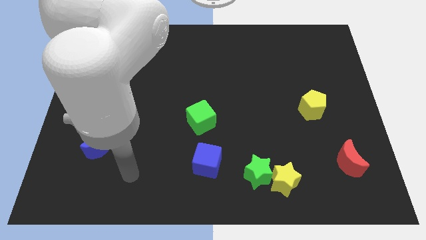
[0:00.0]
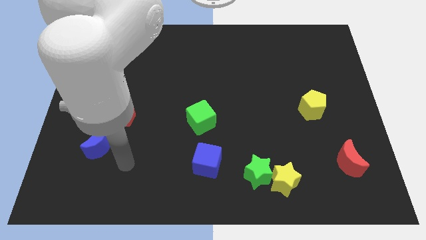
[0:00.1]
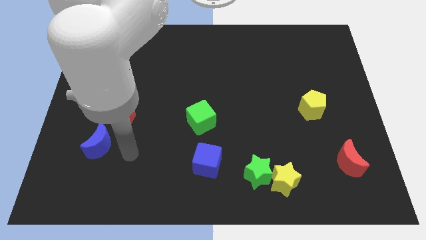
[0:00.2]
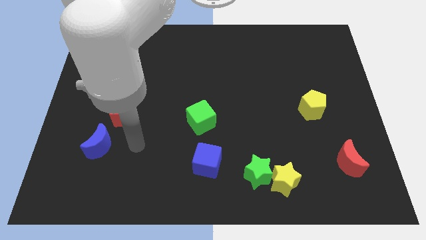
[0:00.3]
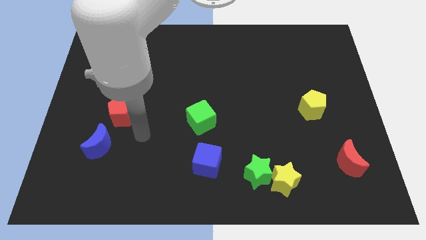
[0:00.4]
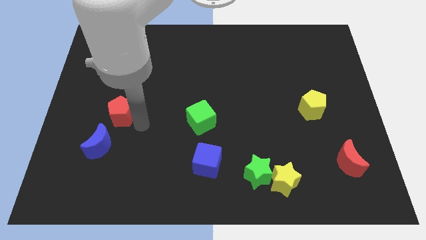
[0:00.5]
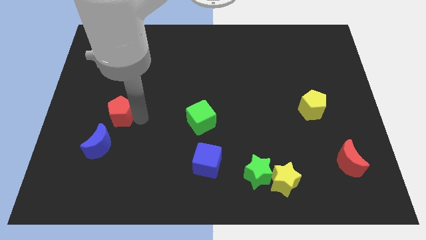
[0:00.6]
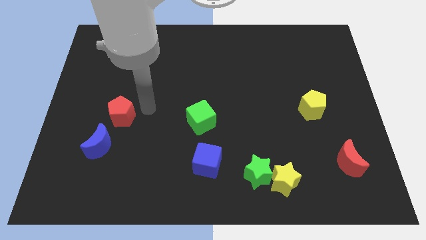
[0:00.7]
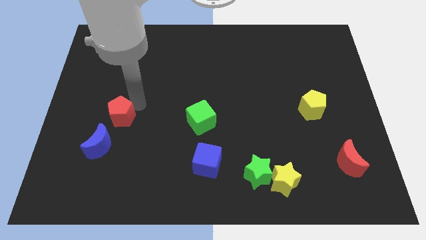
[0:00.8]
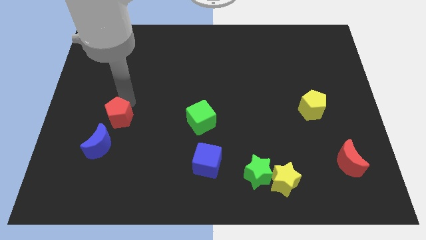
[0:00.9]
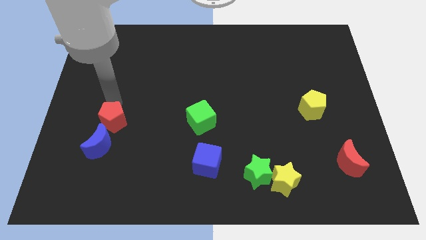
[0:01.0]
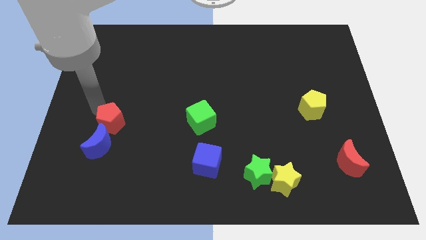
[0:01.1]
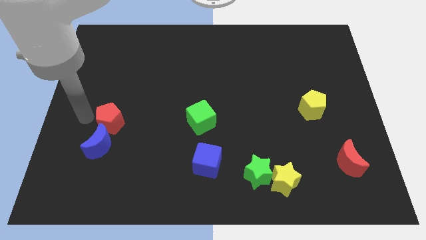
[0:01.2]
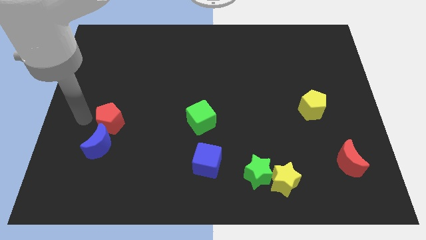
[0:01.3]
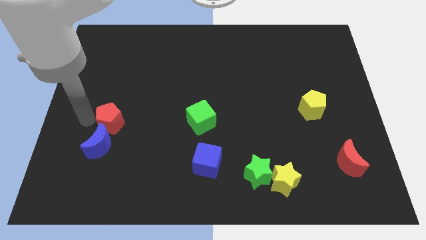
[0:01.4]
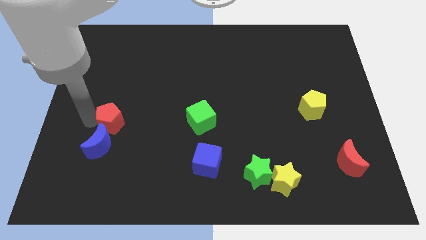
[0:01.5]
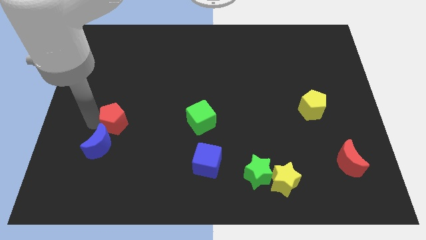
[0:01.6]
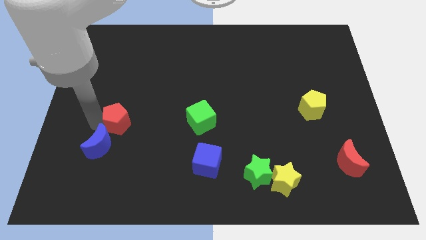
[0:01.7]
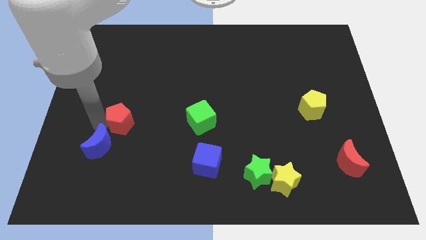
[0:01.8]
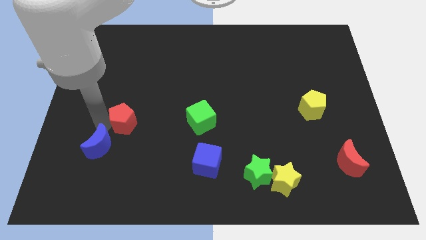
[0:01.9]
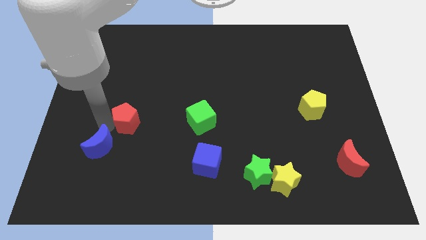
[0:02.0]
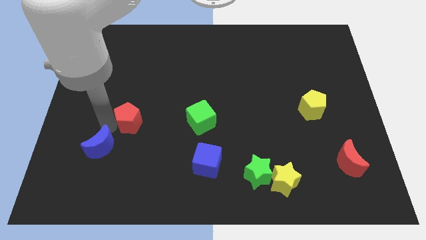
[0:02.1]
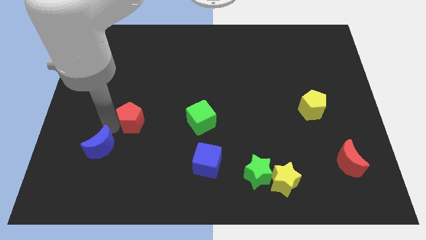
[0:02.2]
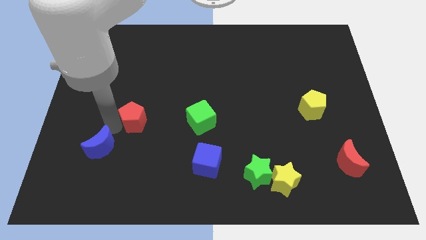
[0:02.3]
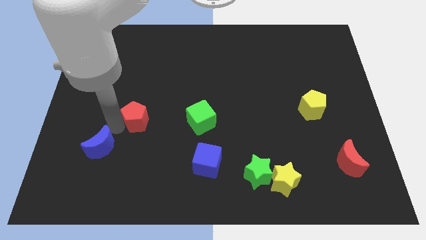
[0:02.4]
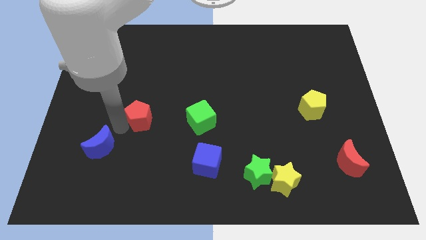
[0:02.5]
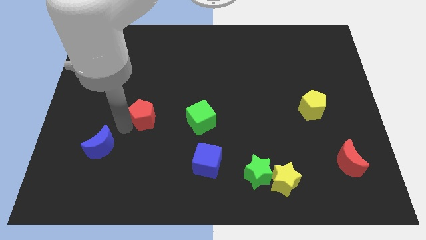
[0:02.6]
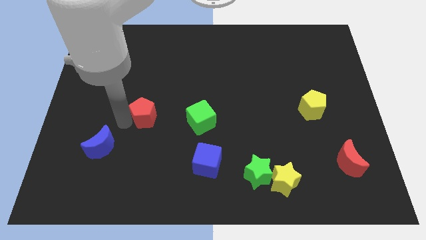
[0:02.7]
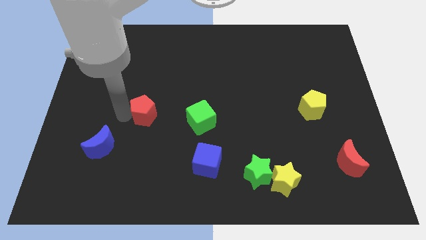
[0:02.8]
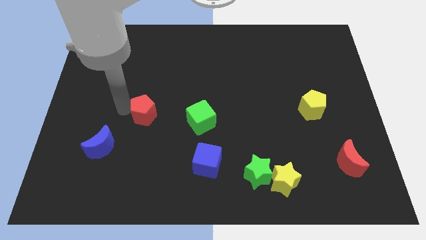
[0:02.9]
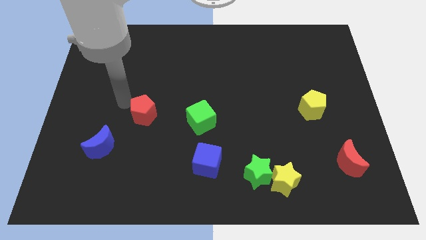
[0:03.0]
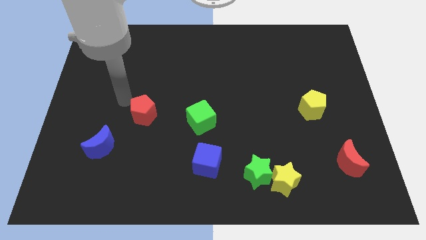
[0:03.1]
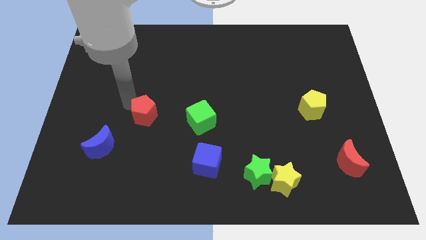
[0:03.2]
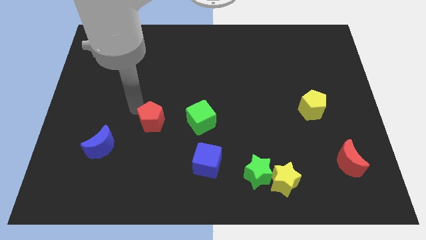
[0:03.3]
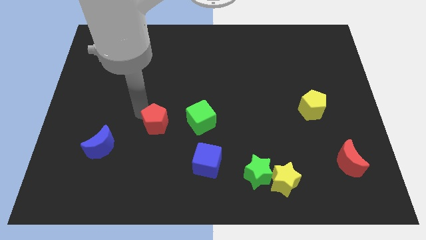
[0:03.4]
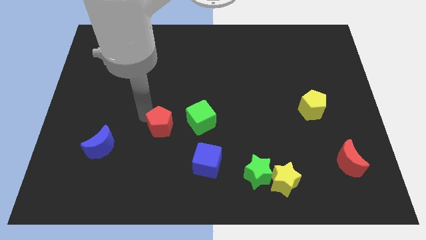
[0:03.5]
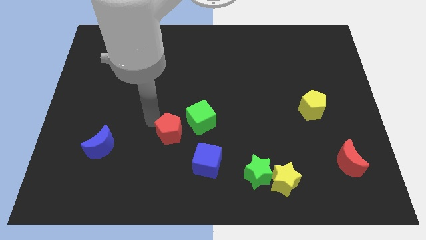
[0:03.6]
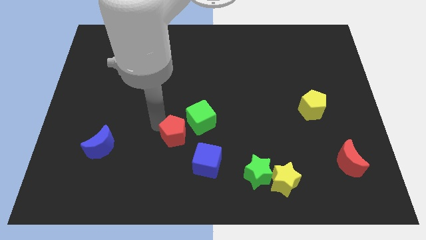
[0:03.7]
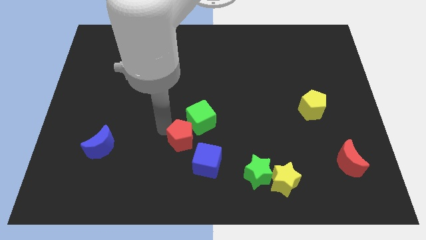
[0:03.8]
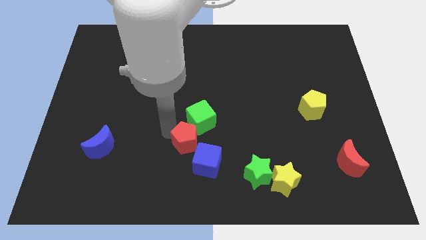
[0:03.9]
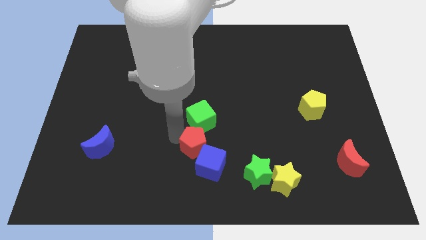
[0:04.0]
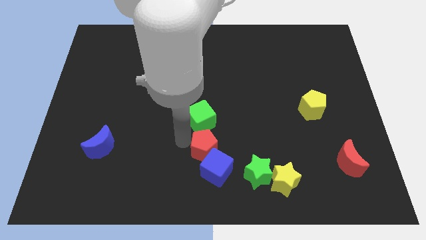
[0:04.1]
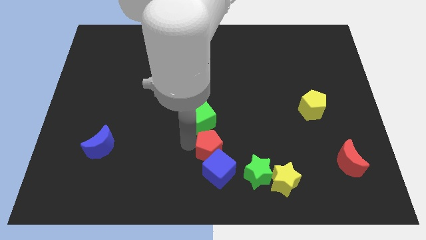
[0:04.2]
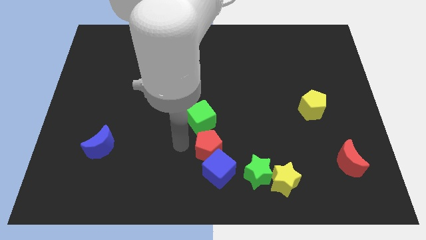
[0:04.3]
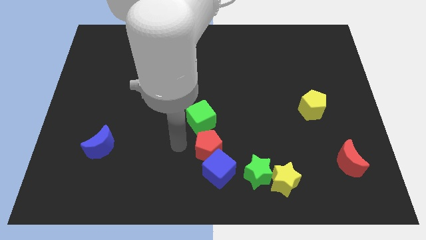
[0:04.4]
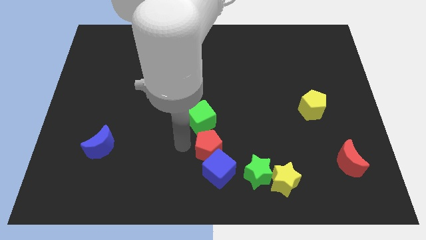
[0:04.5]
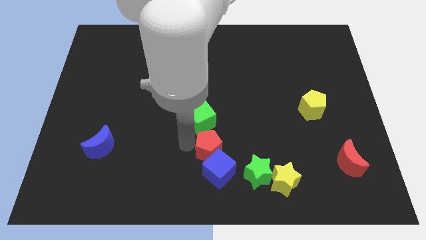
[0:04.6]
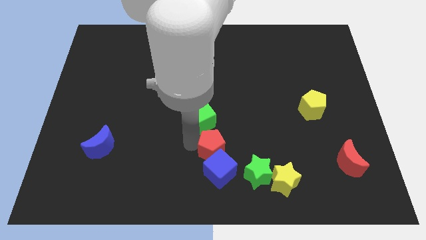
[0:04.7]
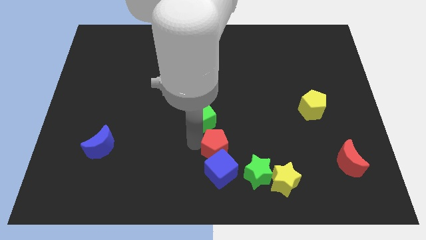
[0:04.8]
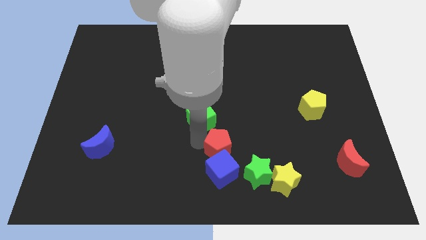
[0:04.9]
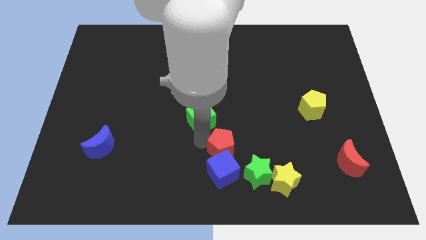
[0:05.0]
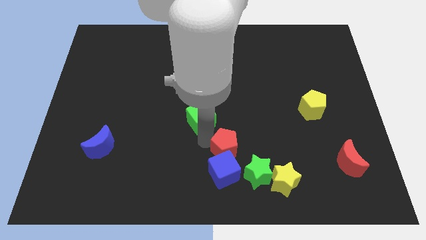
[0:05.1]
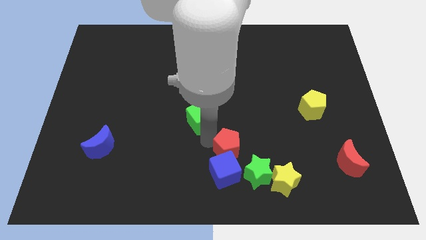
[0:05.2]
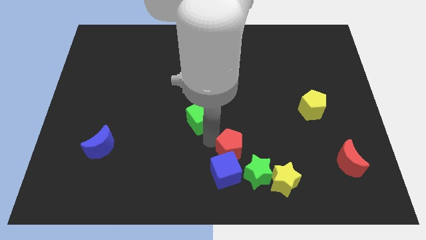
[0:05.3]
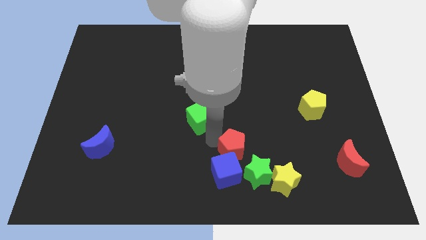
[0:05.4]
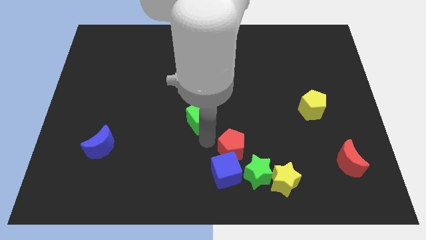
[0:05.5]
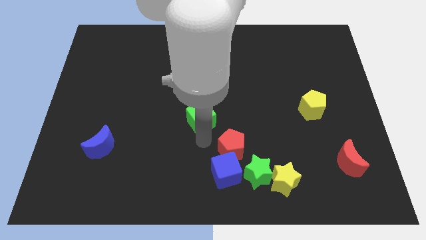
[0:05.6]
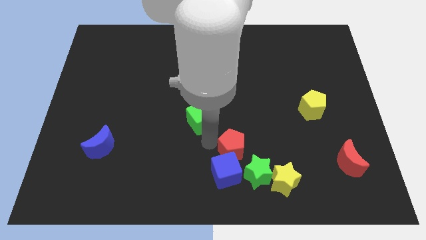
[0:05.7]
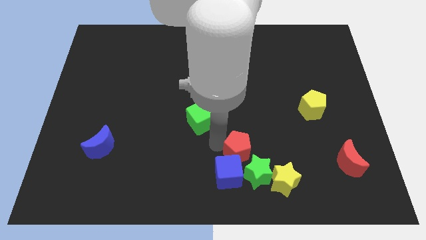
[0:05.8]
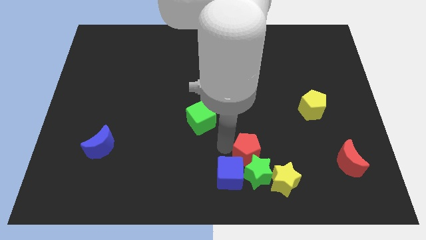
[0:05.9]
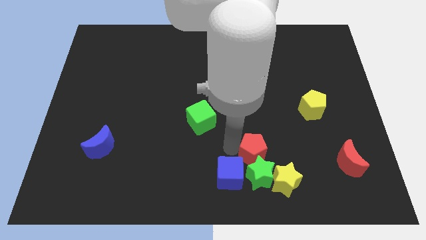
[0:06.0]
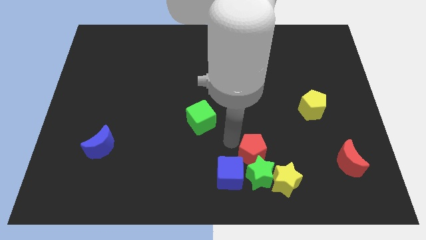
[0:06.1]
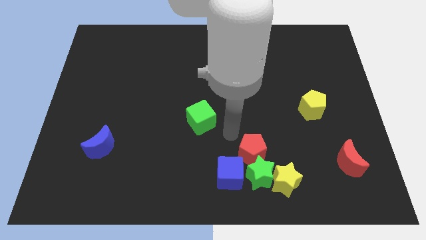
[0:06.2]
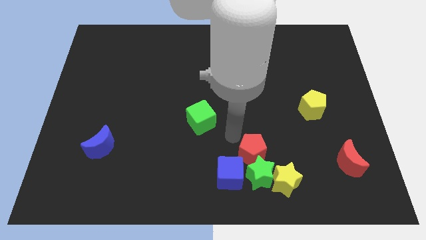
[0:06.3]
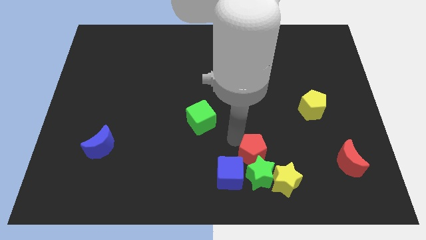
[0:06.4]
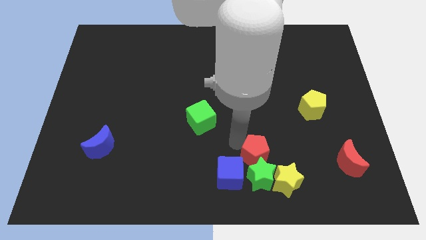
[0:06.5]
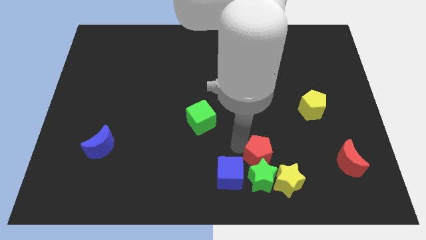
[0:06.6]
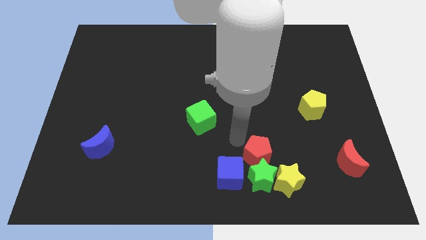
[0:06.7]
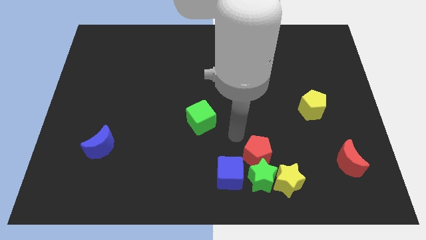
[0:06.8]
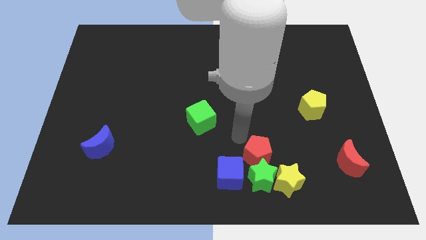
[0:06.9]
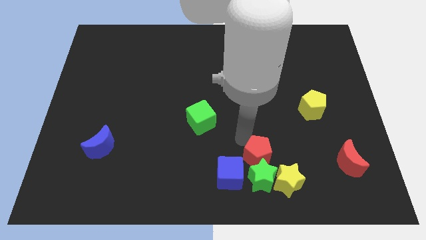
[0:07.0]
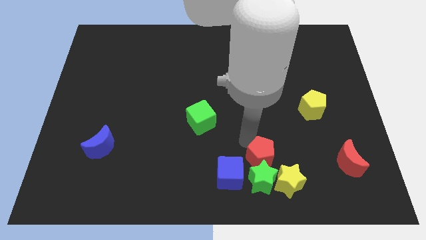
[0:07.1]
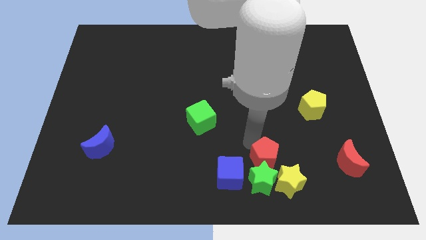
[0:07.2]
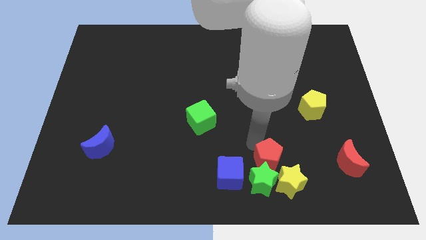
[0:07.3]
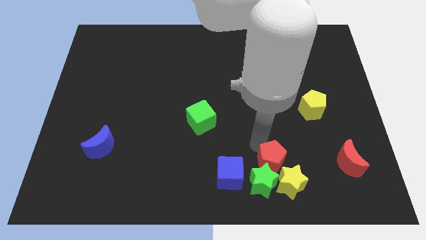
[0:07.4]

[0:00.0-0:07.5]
slide the red pentagon towards the yellow star
